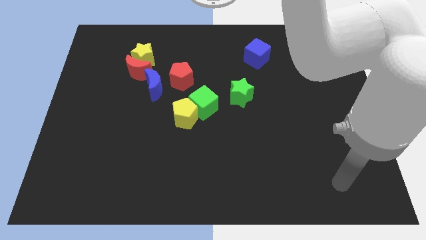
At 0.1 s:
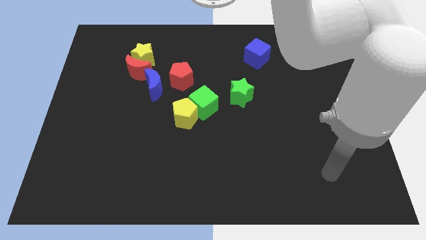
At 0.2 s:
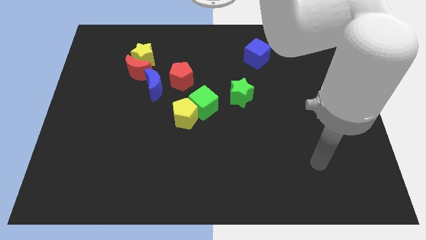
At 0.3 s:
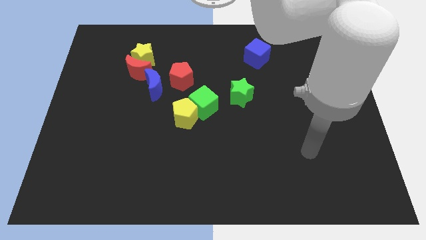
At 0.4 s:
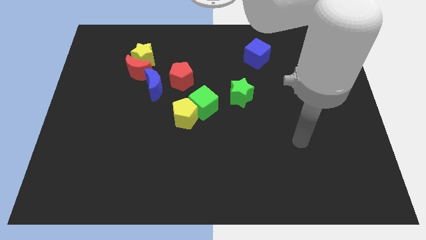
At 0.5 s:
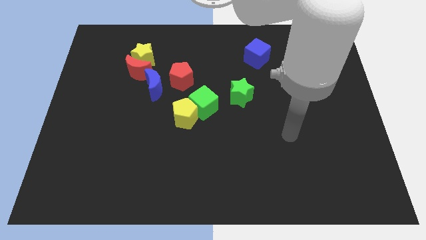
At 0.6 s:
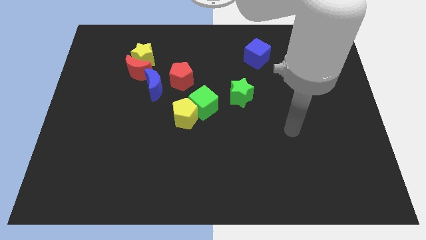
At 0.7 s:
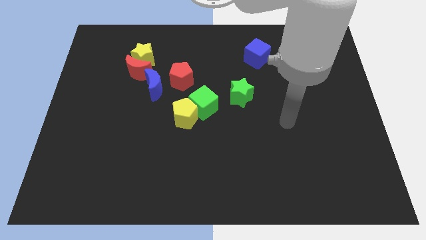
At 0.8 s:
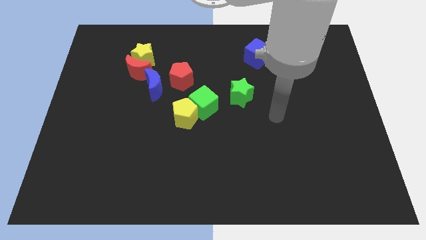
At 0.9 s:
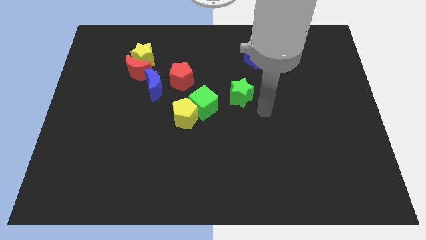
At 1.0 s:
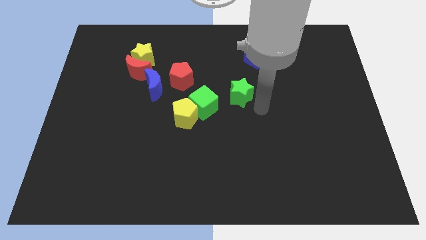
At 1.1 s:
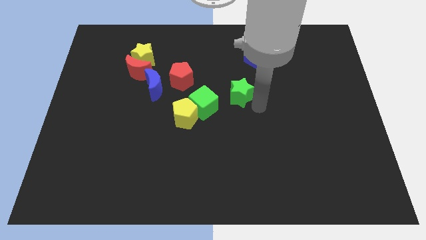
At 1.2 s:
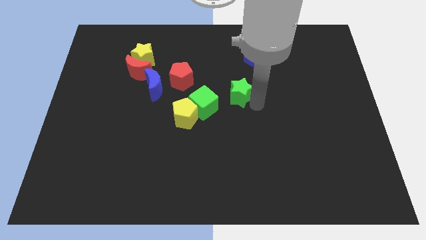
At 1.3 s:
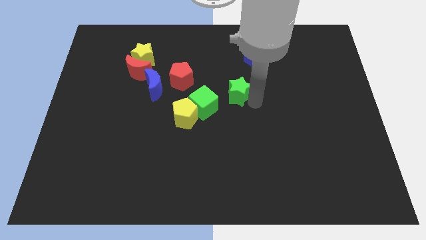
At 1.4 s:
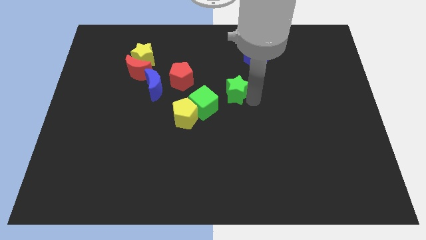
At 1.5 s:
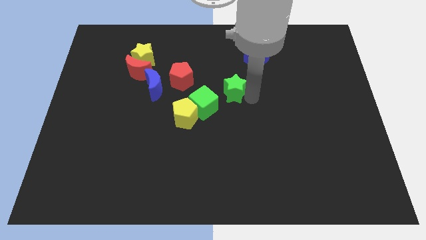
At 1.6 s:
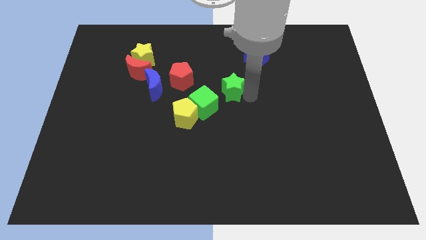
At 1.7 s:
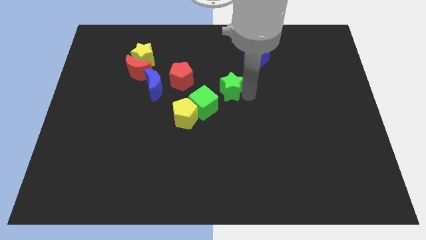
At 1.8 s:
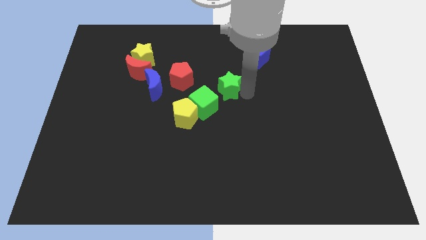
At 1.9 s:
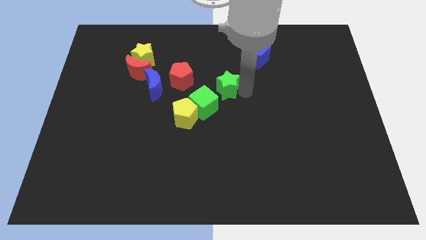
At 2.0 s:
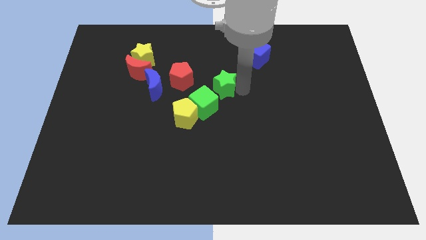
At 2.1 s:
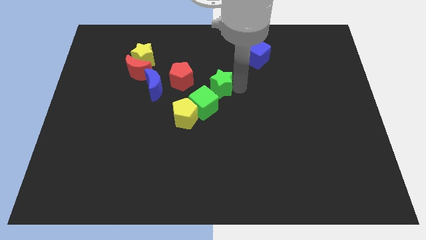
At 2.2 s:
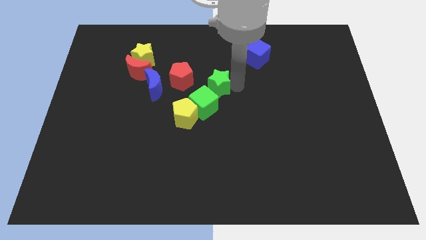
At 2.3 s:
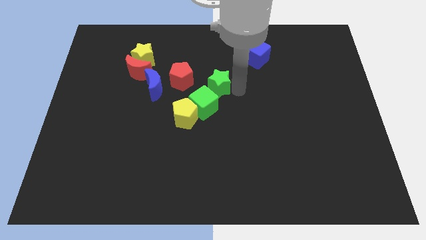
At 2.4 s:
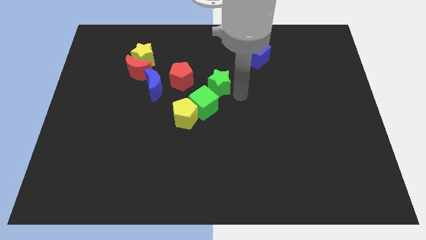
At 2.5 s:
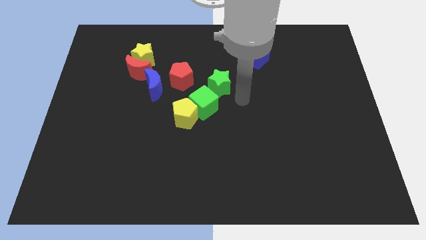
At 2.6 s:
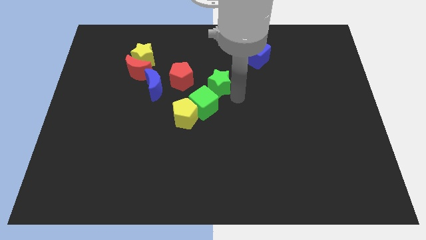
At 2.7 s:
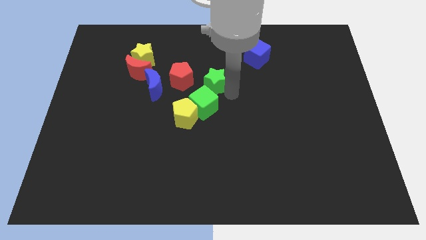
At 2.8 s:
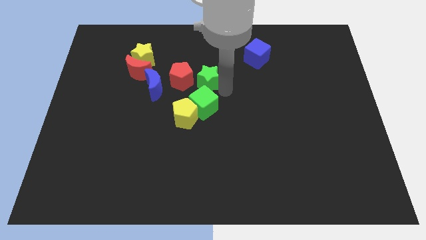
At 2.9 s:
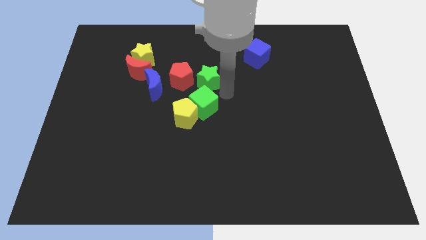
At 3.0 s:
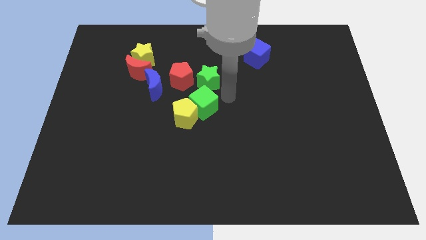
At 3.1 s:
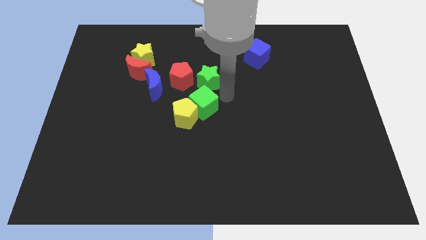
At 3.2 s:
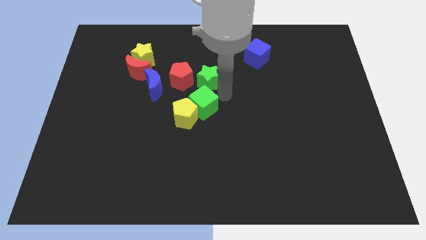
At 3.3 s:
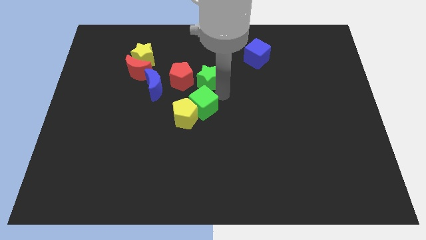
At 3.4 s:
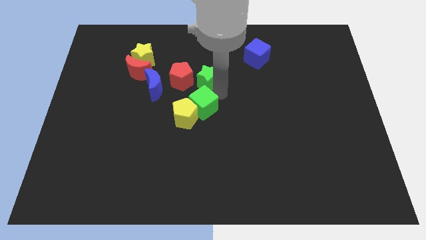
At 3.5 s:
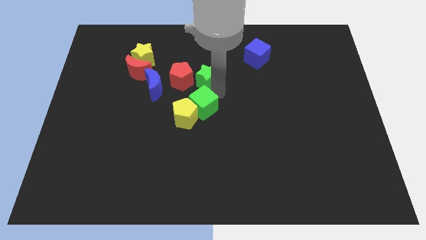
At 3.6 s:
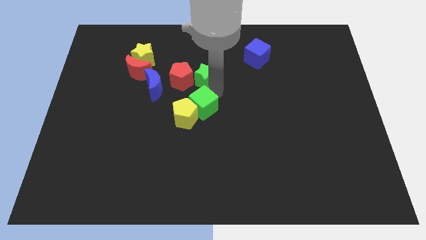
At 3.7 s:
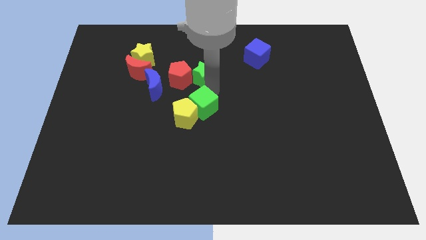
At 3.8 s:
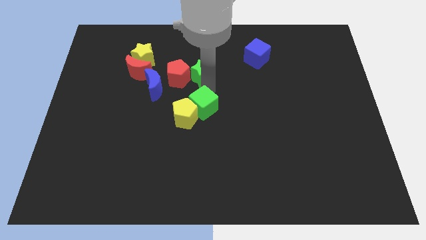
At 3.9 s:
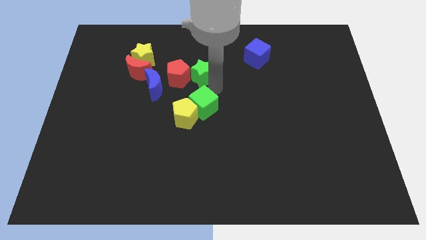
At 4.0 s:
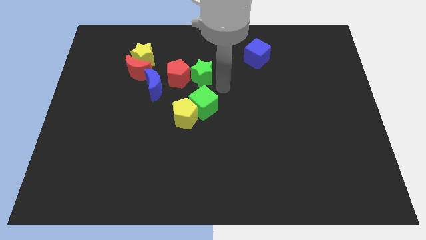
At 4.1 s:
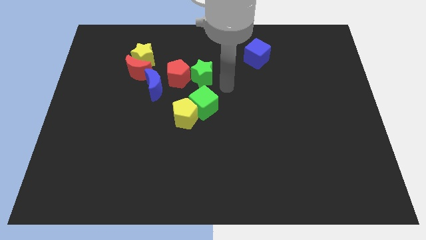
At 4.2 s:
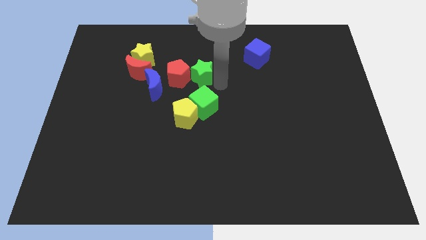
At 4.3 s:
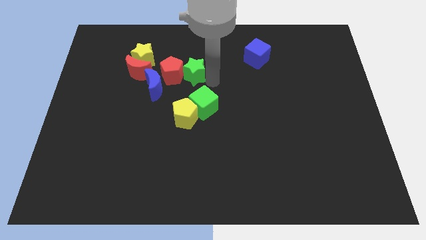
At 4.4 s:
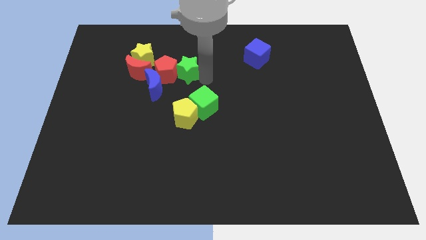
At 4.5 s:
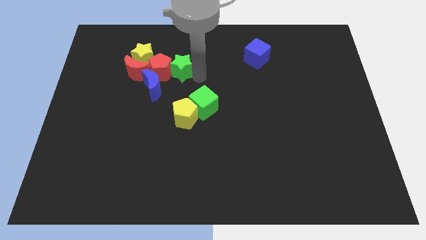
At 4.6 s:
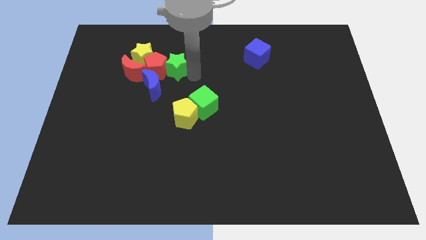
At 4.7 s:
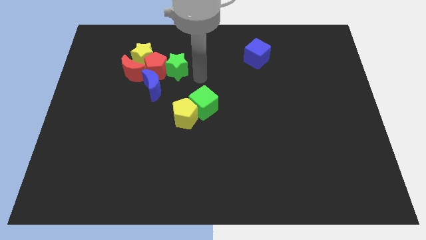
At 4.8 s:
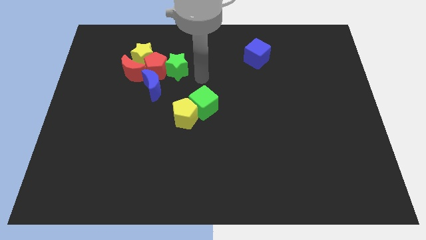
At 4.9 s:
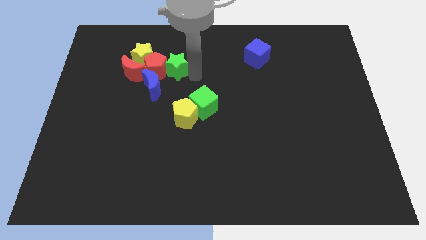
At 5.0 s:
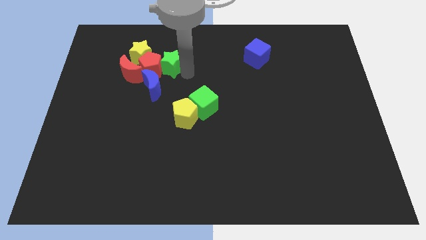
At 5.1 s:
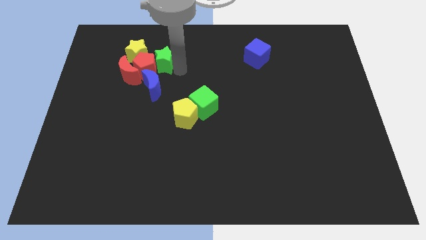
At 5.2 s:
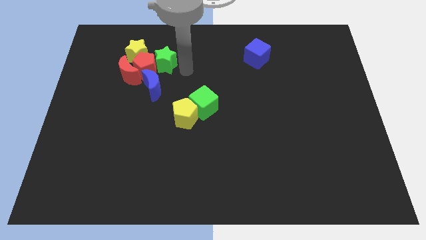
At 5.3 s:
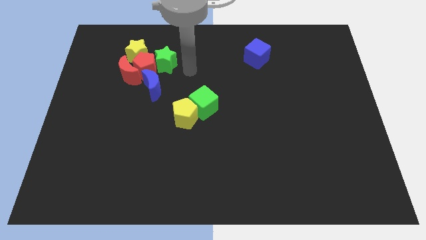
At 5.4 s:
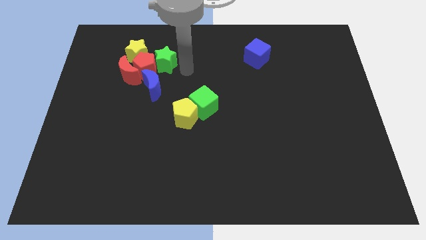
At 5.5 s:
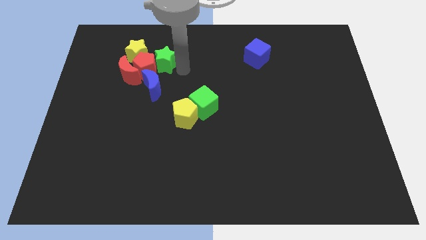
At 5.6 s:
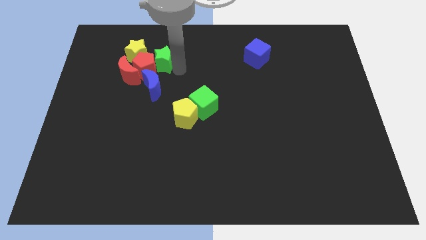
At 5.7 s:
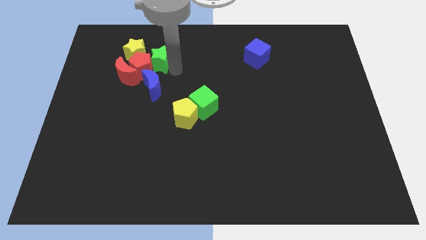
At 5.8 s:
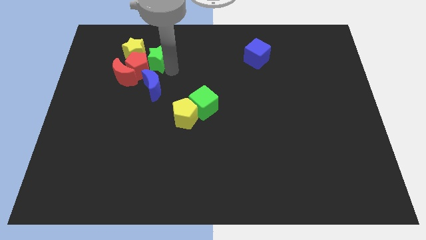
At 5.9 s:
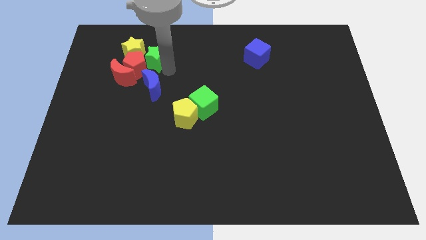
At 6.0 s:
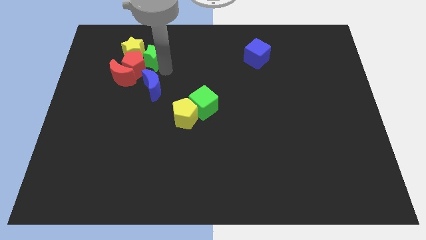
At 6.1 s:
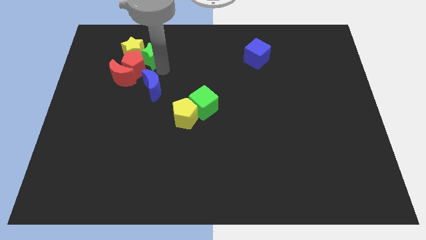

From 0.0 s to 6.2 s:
put the green star next to the yellow star
